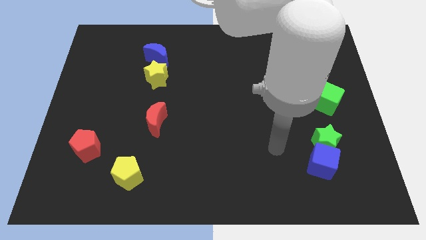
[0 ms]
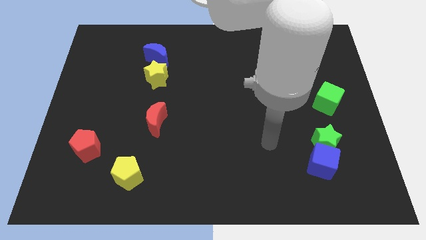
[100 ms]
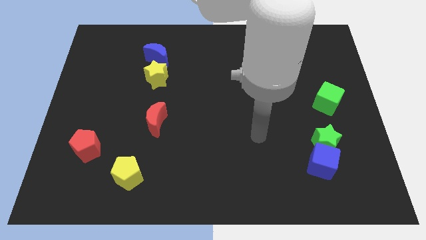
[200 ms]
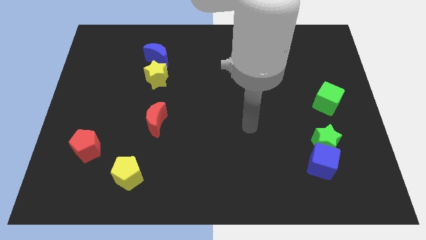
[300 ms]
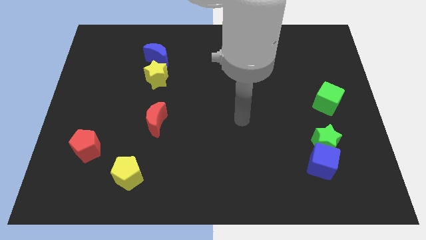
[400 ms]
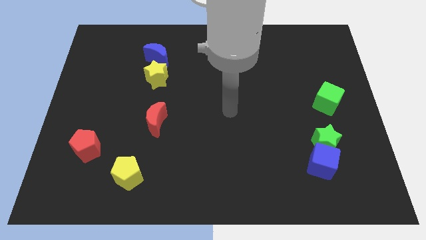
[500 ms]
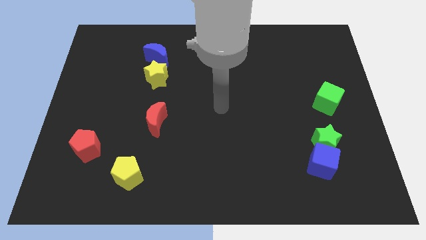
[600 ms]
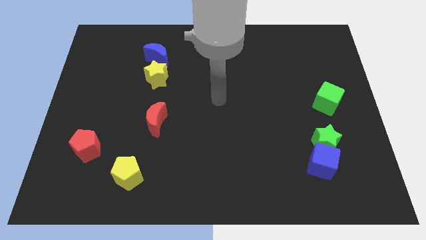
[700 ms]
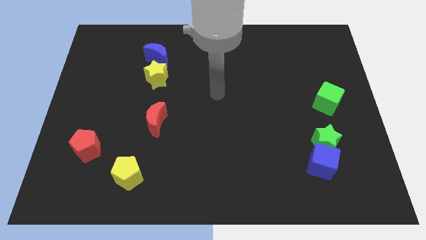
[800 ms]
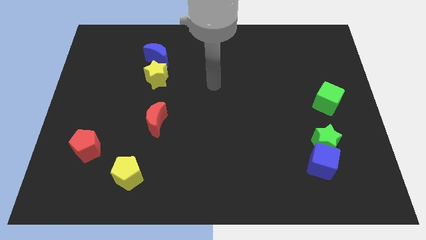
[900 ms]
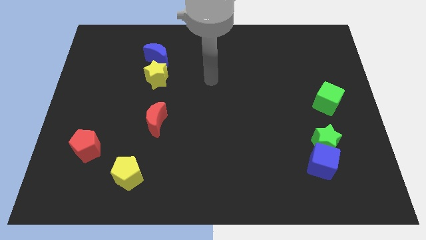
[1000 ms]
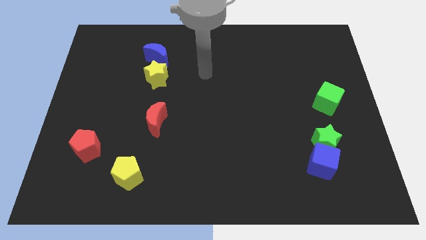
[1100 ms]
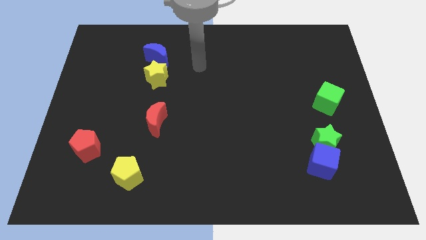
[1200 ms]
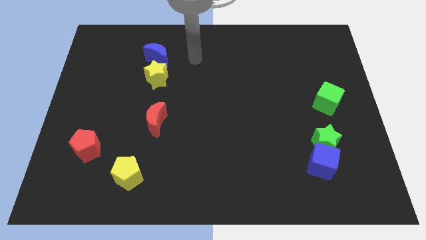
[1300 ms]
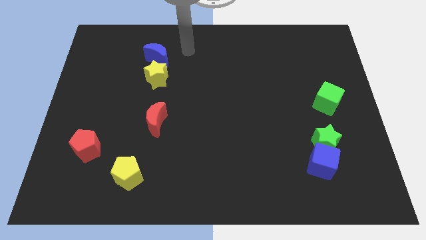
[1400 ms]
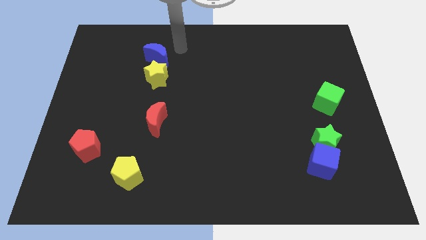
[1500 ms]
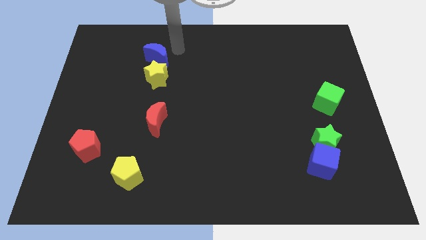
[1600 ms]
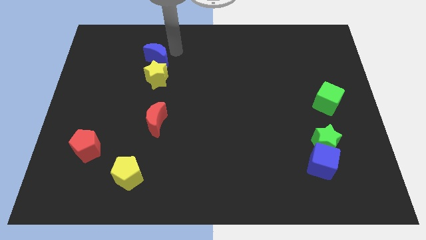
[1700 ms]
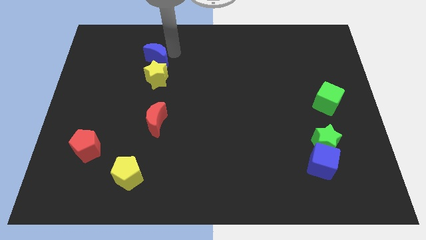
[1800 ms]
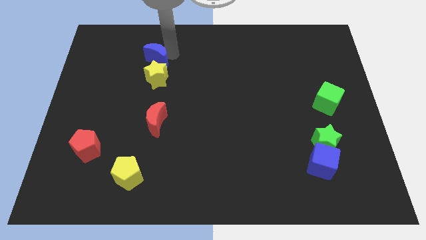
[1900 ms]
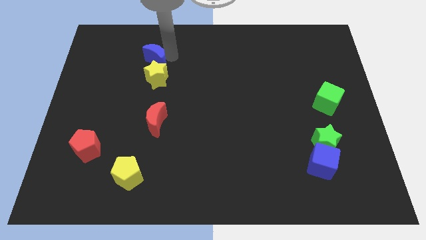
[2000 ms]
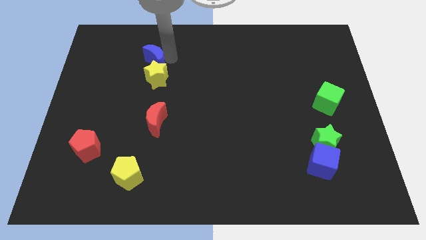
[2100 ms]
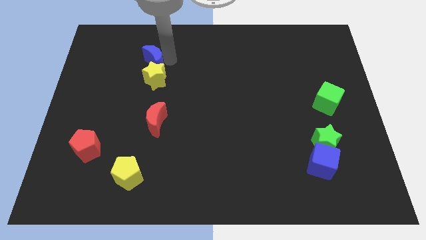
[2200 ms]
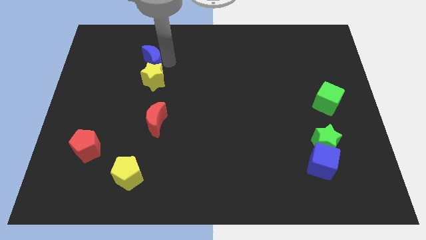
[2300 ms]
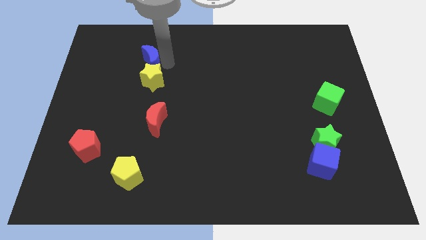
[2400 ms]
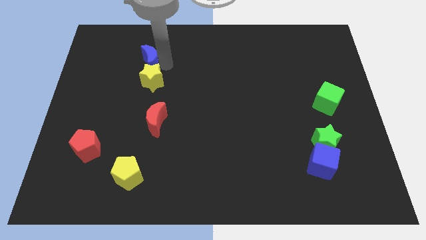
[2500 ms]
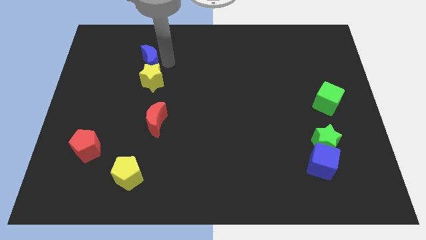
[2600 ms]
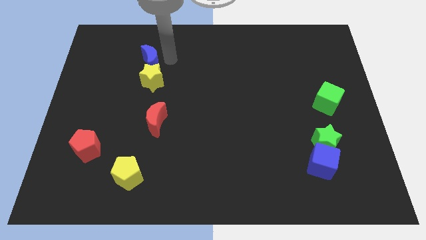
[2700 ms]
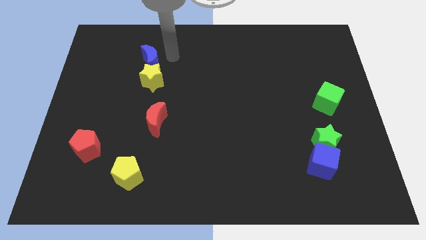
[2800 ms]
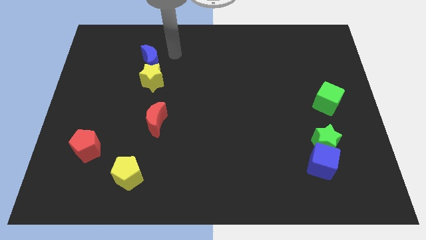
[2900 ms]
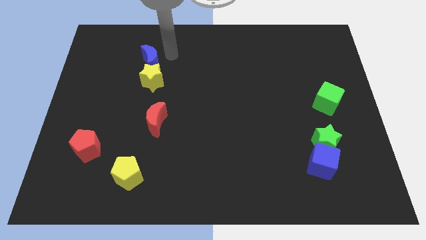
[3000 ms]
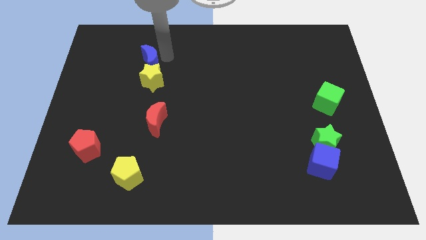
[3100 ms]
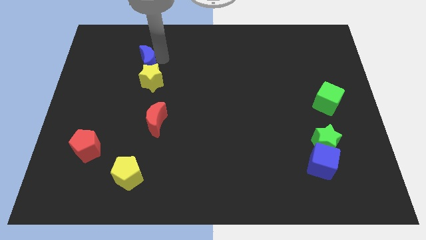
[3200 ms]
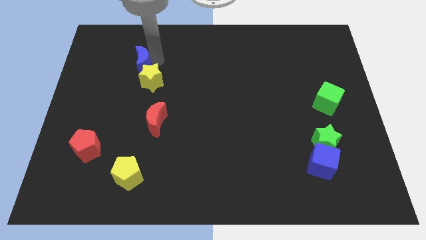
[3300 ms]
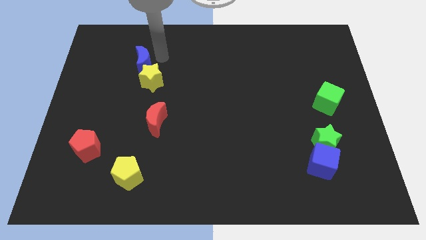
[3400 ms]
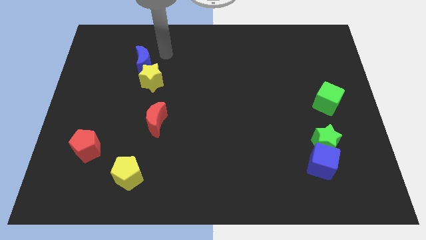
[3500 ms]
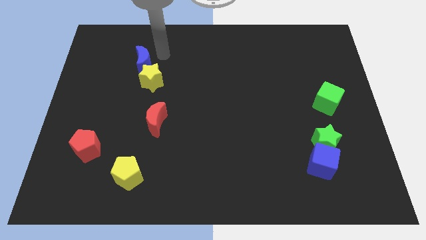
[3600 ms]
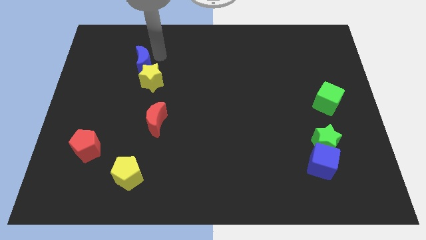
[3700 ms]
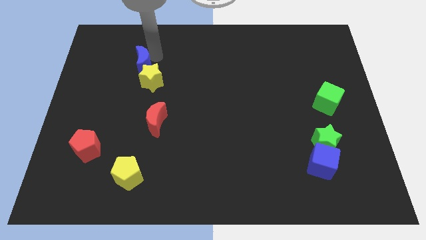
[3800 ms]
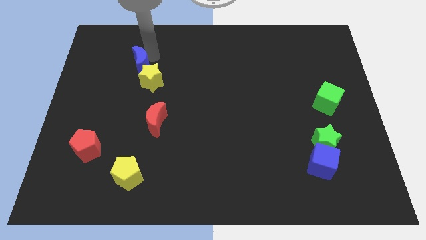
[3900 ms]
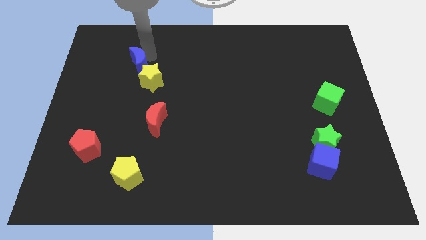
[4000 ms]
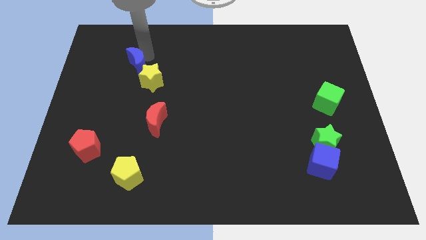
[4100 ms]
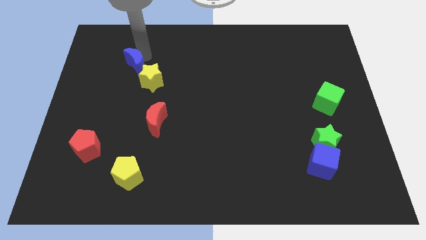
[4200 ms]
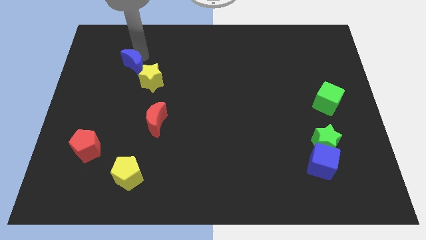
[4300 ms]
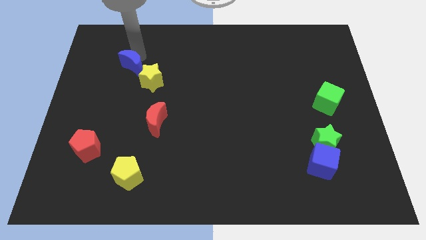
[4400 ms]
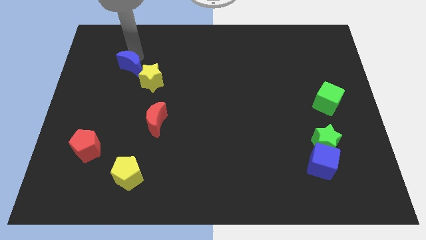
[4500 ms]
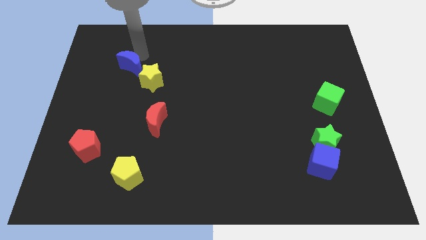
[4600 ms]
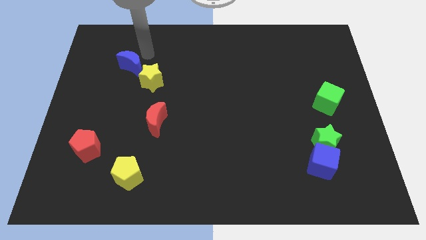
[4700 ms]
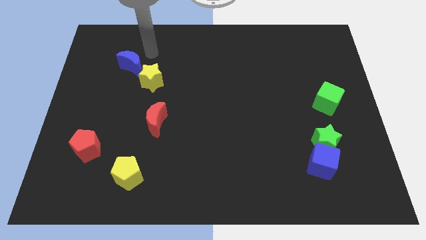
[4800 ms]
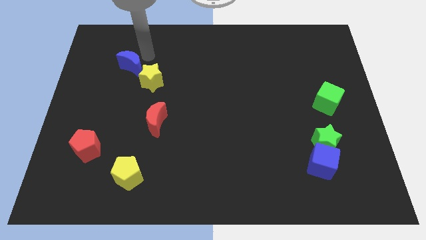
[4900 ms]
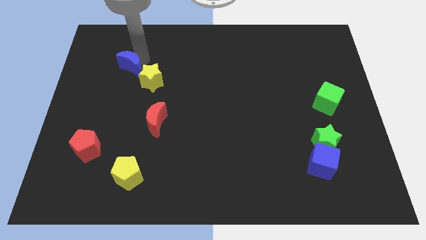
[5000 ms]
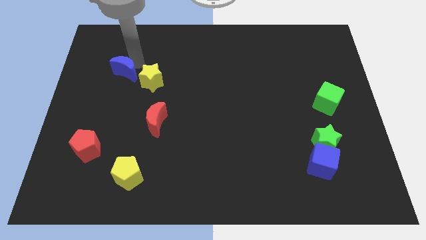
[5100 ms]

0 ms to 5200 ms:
slide the blue moon left of the yellow star

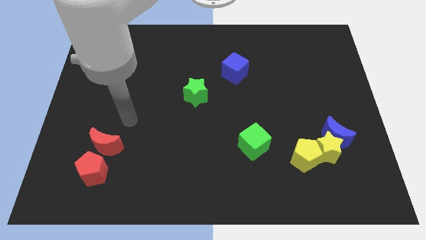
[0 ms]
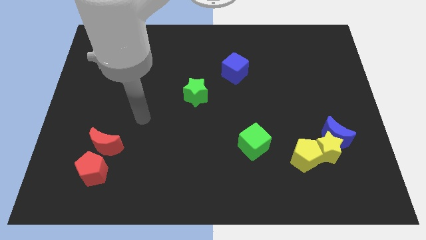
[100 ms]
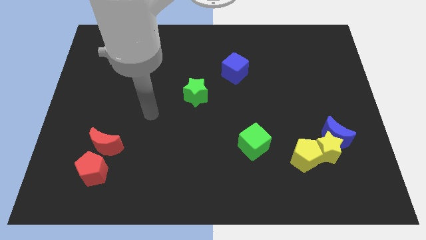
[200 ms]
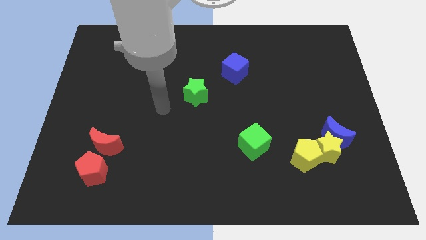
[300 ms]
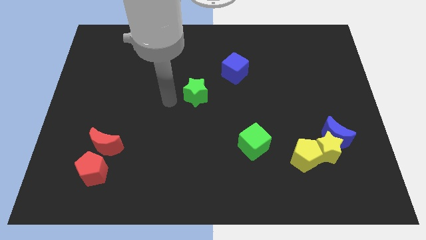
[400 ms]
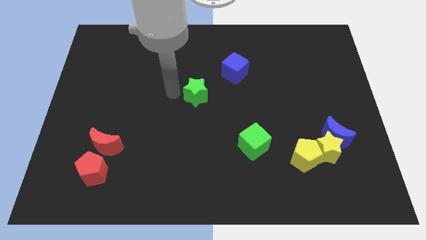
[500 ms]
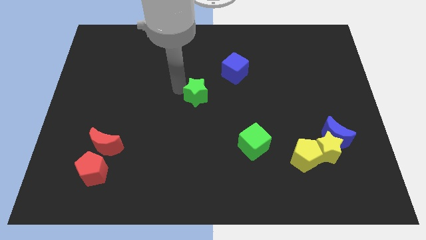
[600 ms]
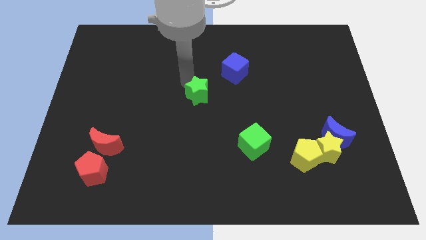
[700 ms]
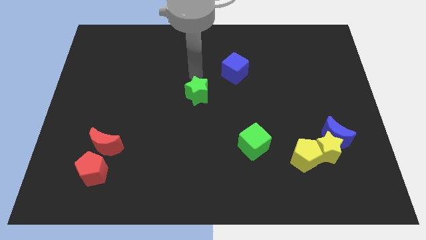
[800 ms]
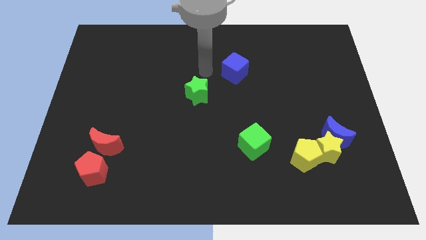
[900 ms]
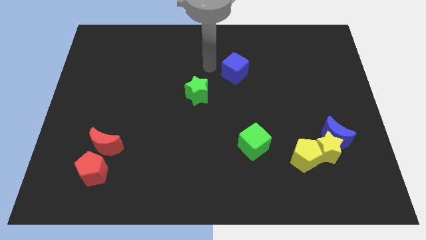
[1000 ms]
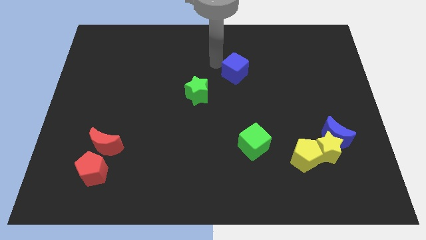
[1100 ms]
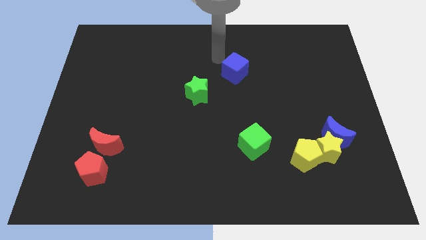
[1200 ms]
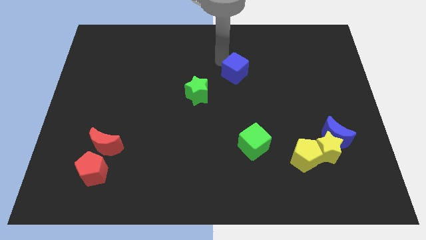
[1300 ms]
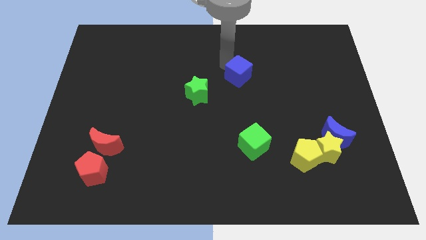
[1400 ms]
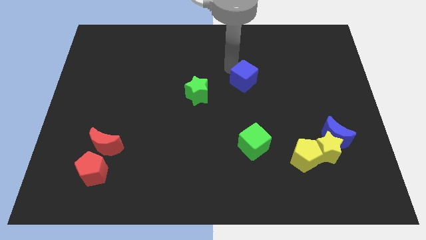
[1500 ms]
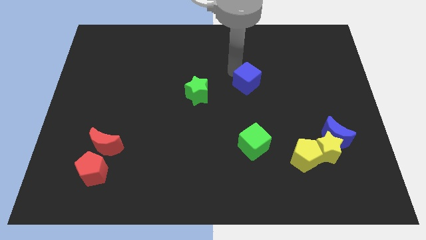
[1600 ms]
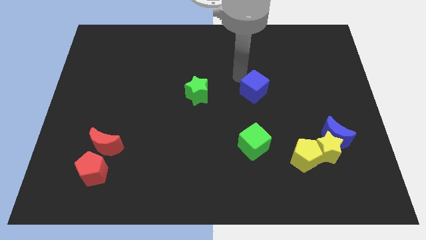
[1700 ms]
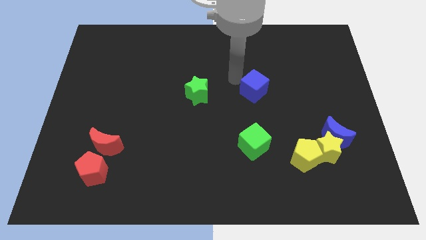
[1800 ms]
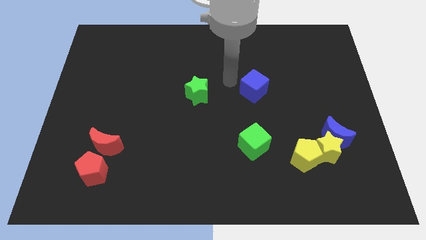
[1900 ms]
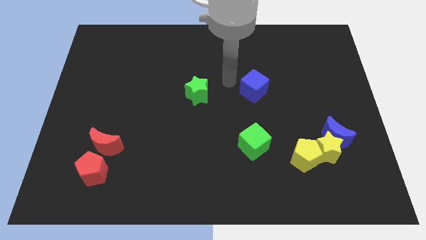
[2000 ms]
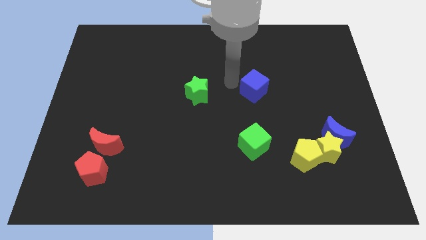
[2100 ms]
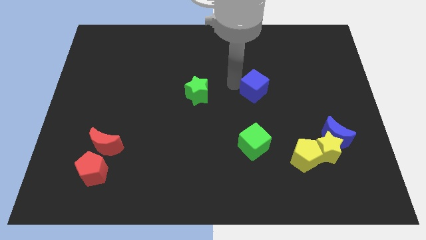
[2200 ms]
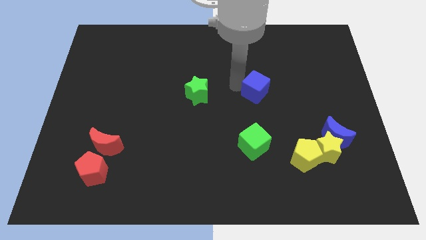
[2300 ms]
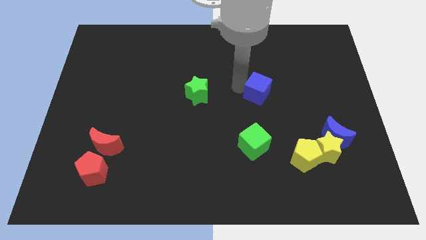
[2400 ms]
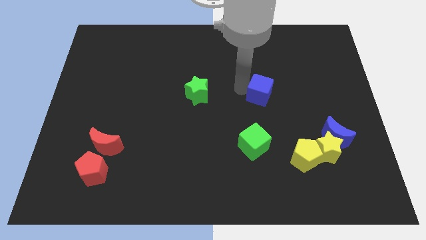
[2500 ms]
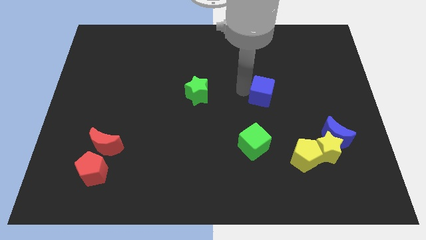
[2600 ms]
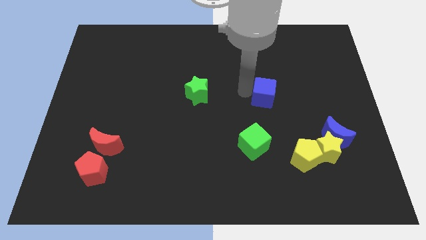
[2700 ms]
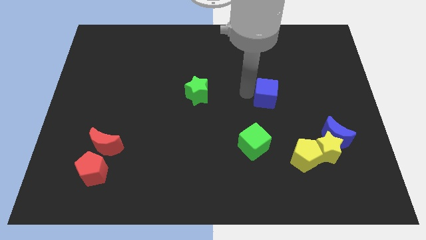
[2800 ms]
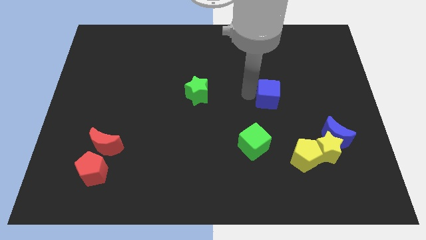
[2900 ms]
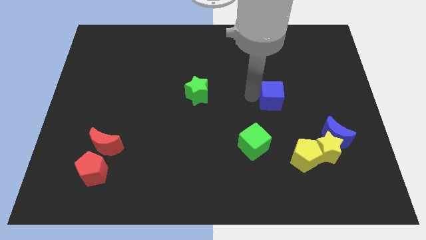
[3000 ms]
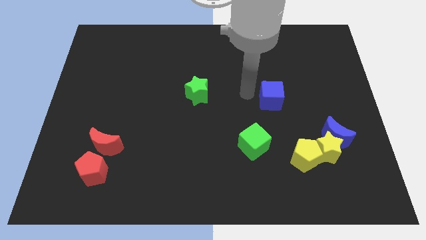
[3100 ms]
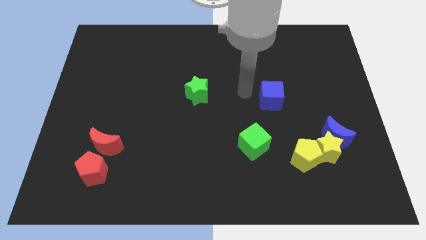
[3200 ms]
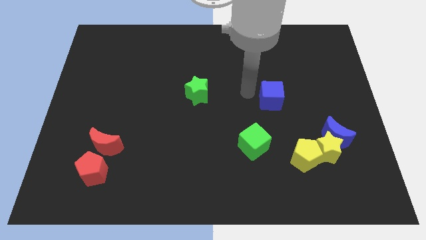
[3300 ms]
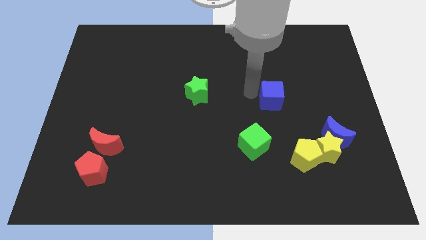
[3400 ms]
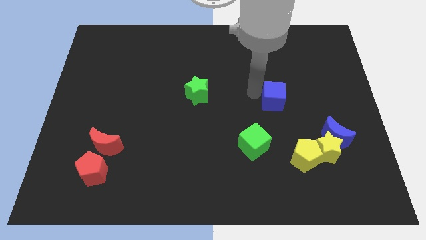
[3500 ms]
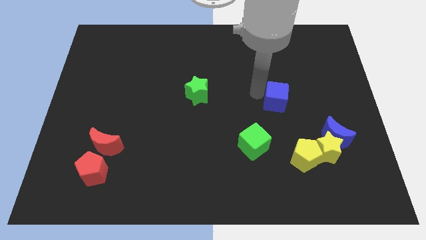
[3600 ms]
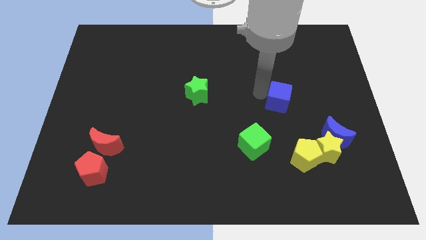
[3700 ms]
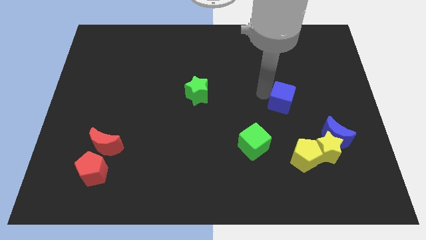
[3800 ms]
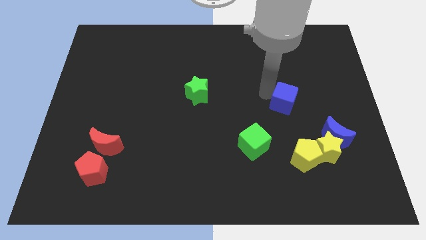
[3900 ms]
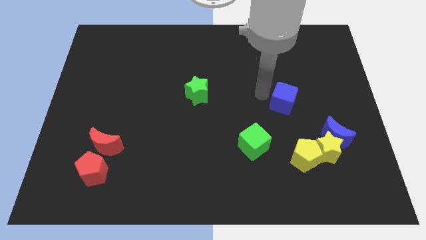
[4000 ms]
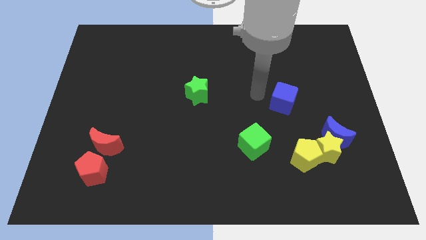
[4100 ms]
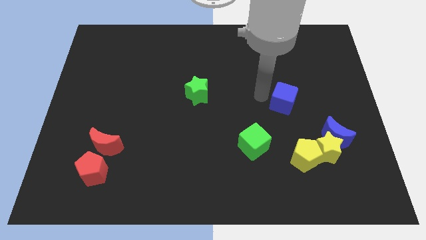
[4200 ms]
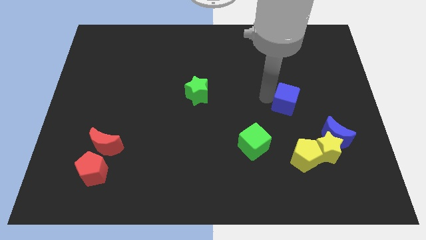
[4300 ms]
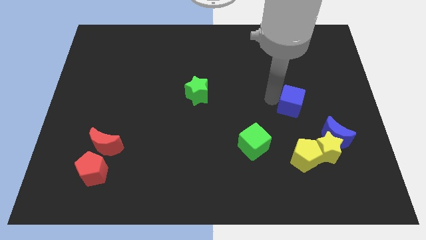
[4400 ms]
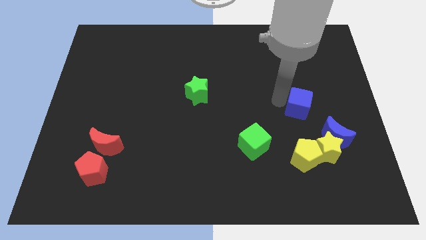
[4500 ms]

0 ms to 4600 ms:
put the blue cube above the yellow star
